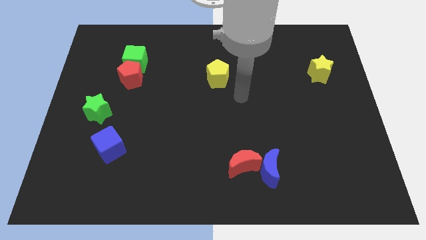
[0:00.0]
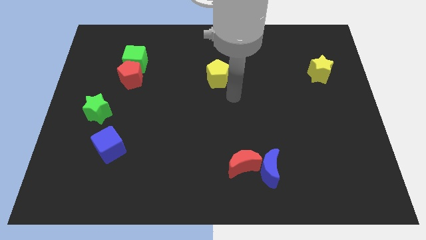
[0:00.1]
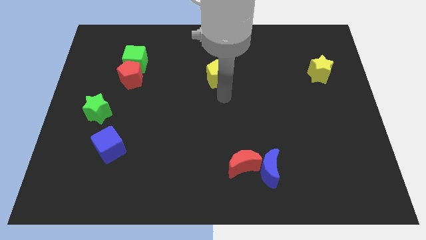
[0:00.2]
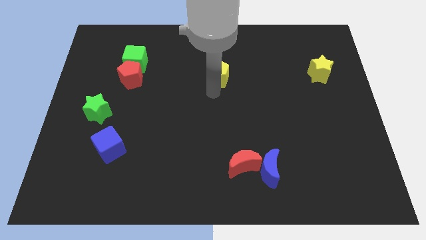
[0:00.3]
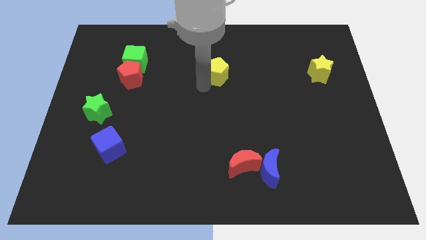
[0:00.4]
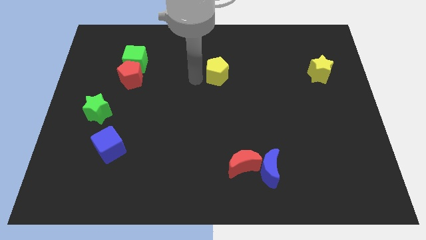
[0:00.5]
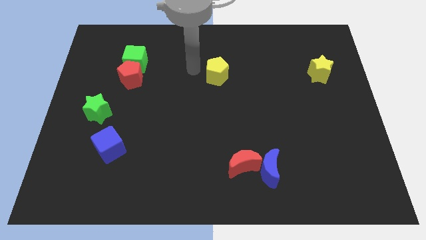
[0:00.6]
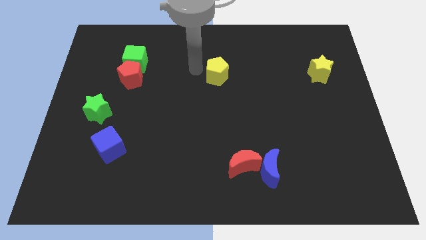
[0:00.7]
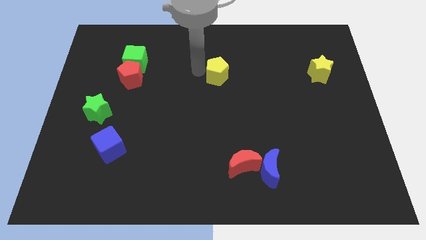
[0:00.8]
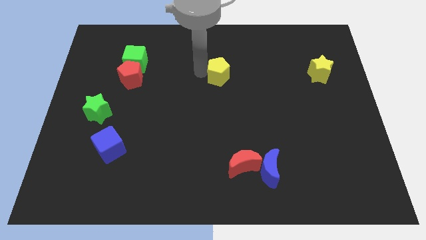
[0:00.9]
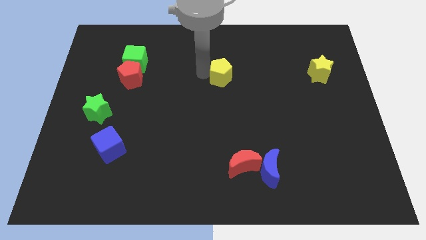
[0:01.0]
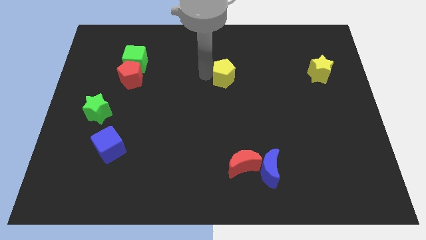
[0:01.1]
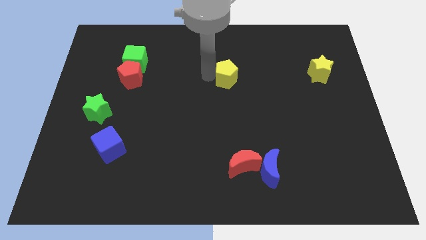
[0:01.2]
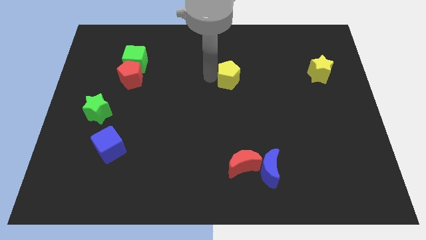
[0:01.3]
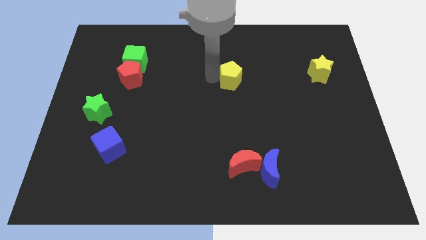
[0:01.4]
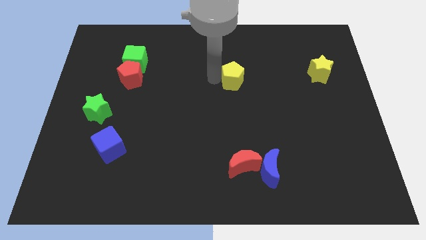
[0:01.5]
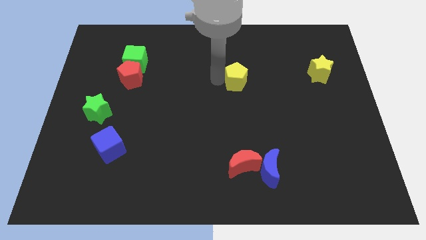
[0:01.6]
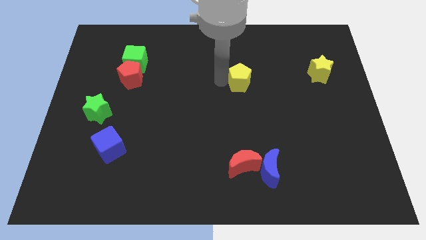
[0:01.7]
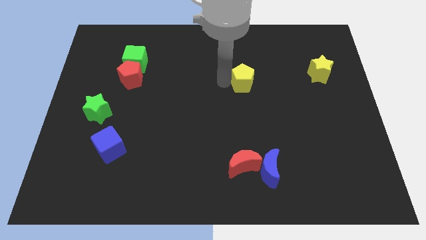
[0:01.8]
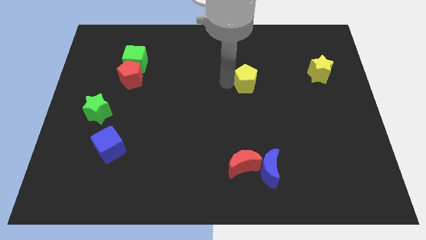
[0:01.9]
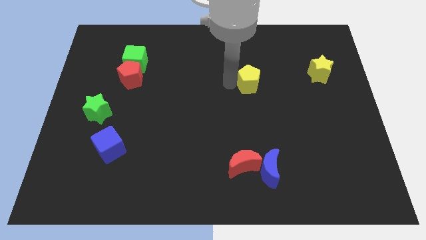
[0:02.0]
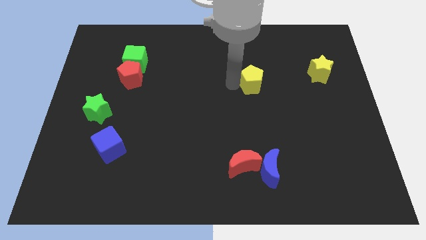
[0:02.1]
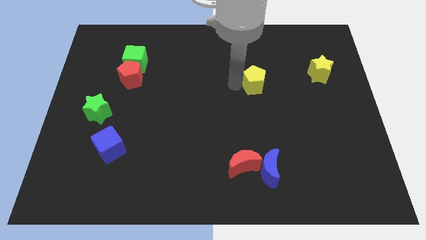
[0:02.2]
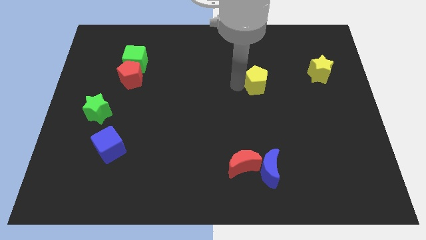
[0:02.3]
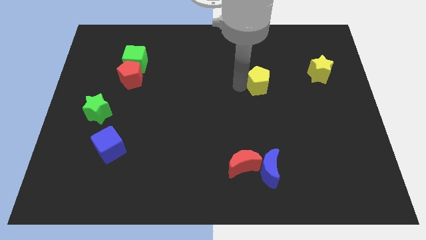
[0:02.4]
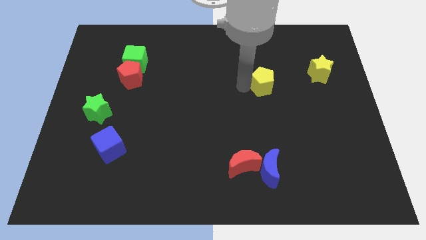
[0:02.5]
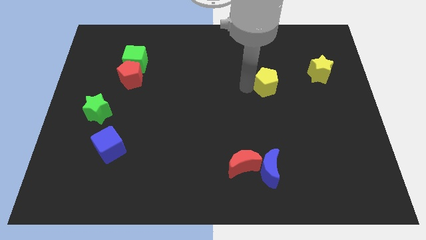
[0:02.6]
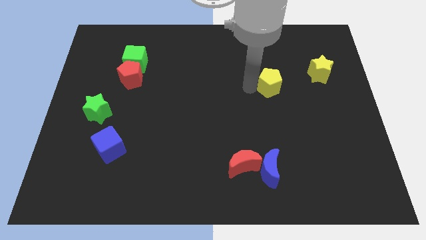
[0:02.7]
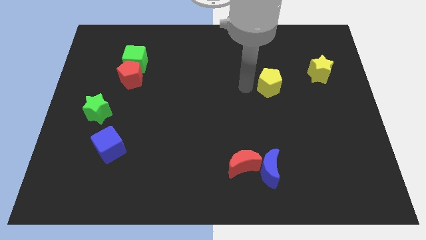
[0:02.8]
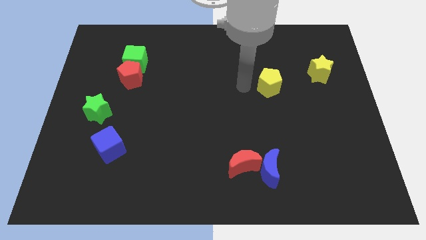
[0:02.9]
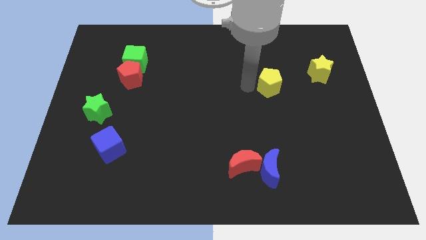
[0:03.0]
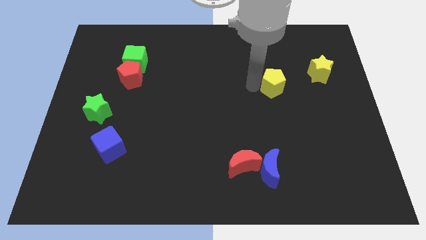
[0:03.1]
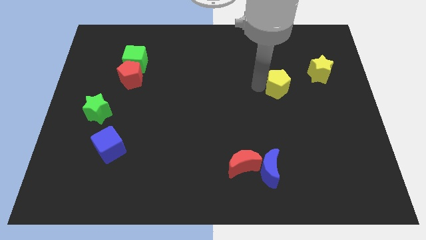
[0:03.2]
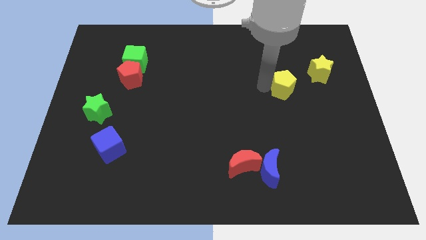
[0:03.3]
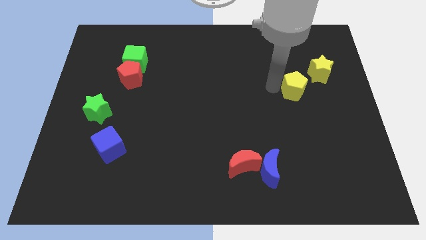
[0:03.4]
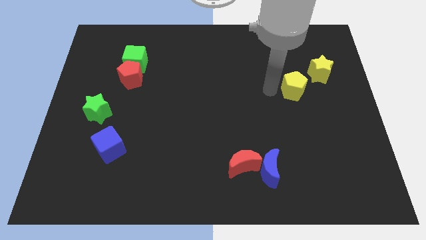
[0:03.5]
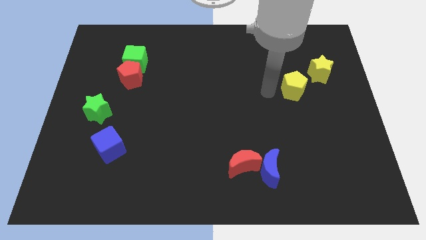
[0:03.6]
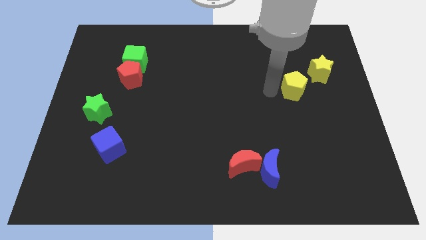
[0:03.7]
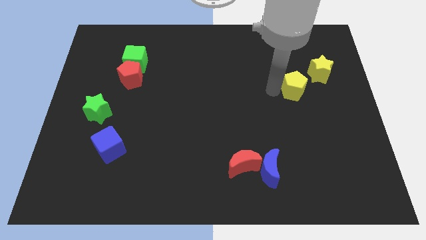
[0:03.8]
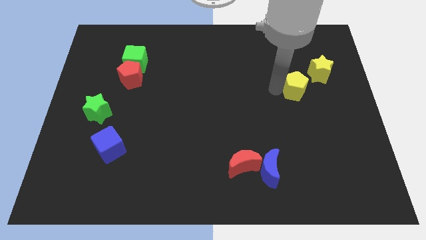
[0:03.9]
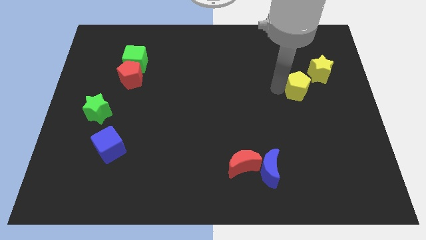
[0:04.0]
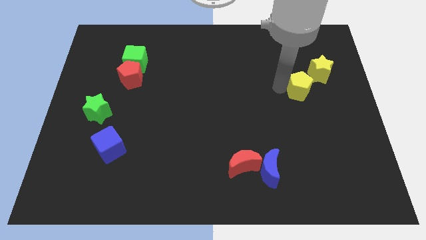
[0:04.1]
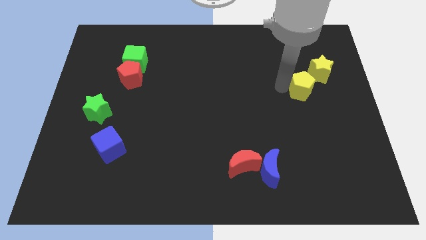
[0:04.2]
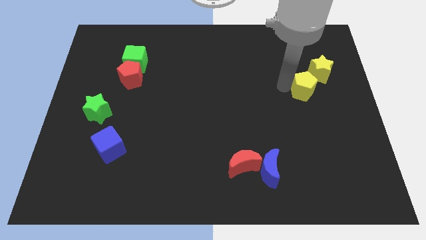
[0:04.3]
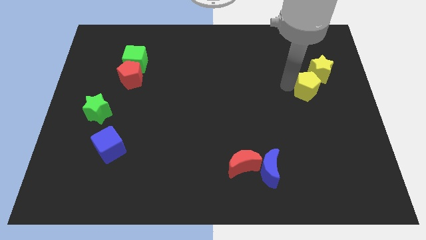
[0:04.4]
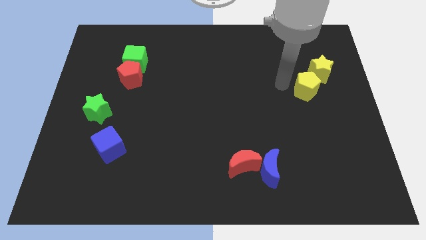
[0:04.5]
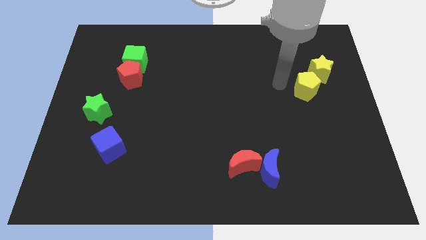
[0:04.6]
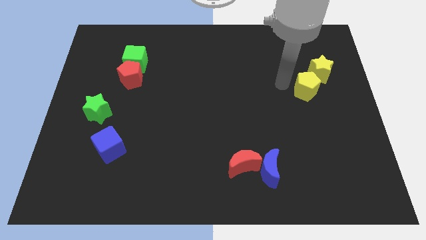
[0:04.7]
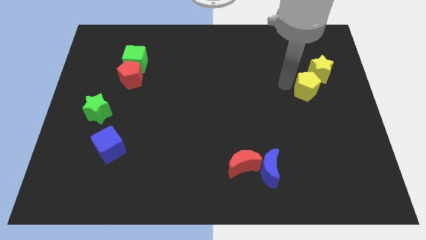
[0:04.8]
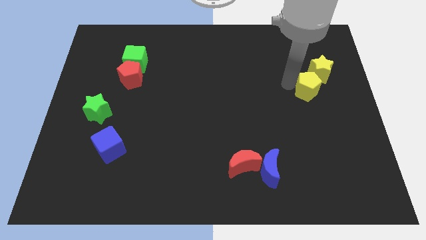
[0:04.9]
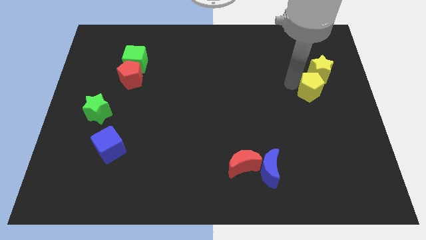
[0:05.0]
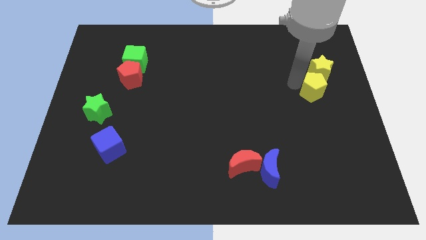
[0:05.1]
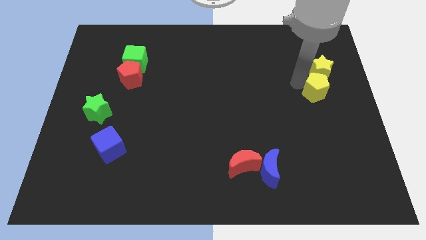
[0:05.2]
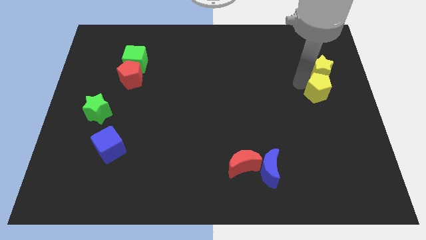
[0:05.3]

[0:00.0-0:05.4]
move the yellow pentagon to the right side

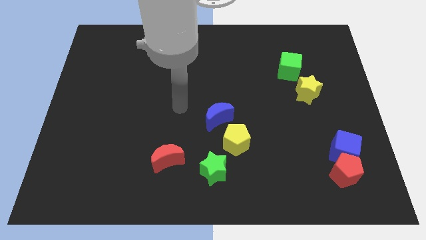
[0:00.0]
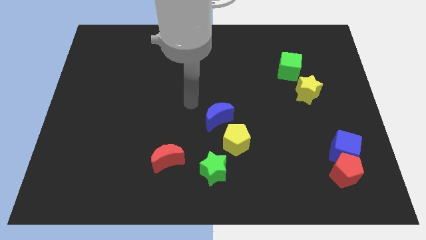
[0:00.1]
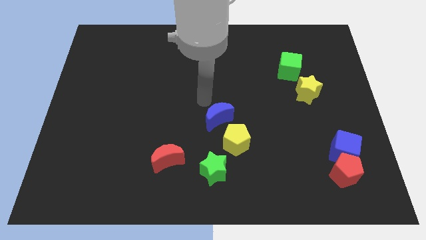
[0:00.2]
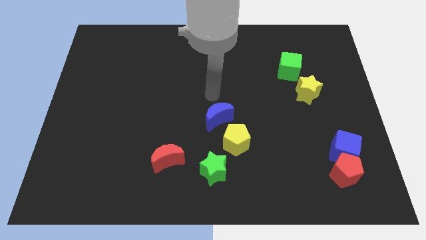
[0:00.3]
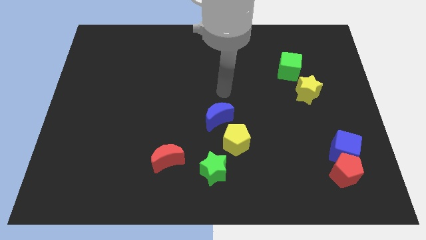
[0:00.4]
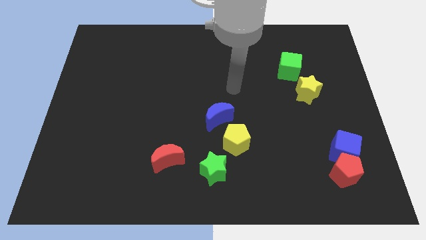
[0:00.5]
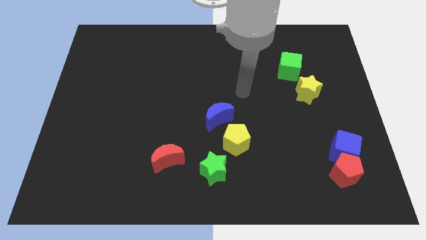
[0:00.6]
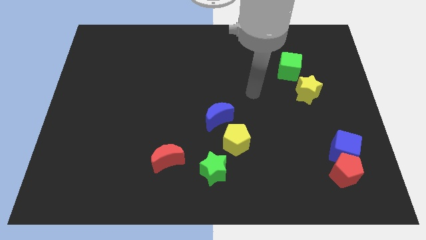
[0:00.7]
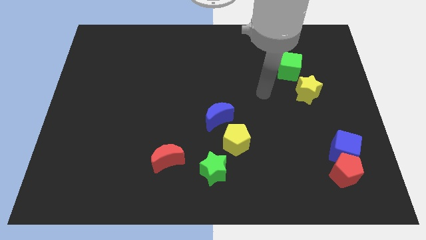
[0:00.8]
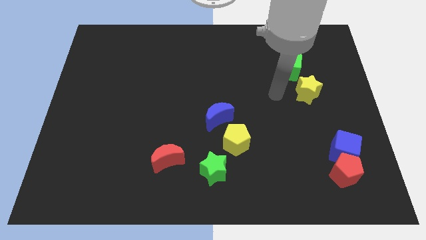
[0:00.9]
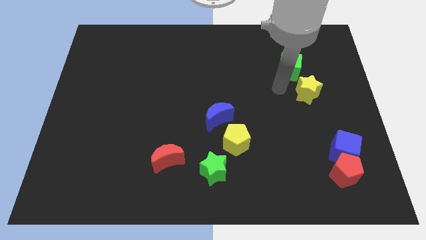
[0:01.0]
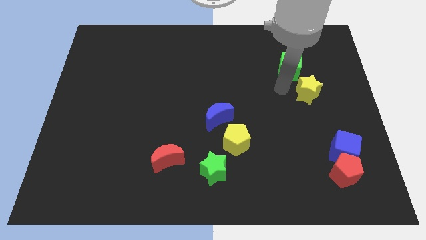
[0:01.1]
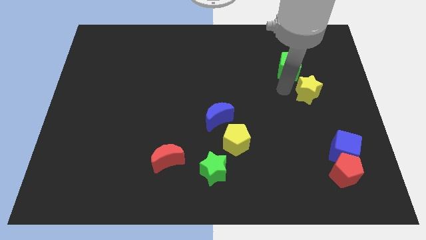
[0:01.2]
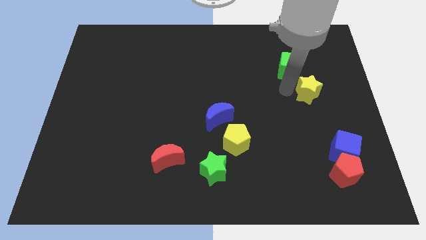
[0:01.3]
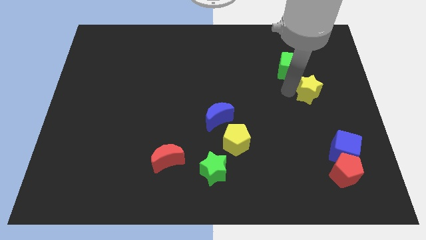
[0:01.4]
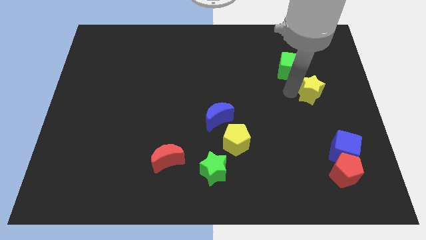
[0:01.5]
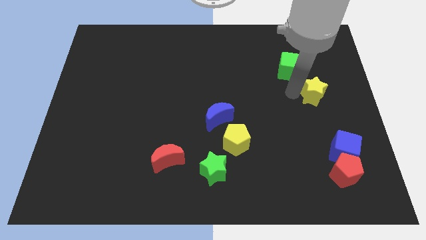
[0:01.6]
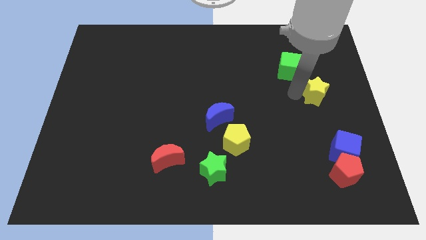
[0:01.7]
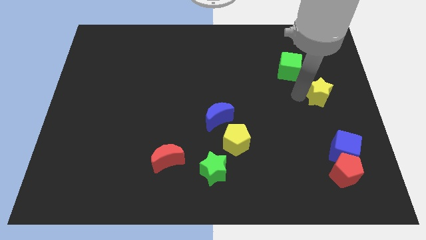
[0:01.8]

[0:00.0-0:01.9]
move the yellow star to the right side
